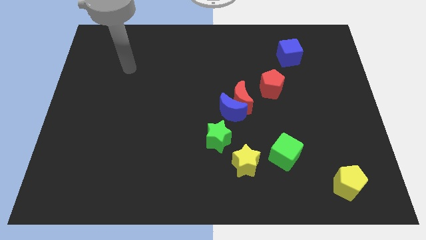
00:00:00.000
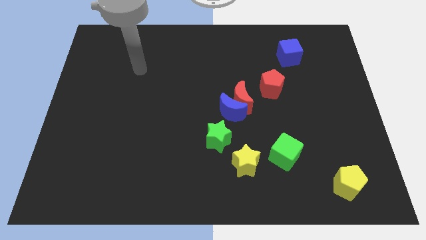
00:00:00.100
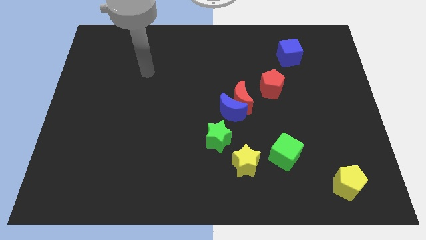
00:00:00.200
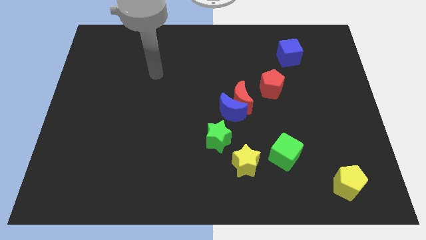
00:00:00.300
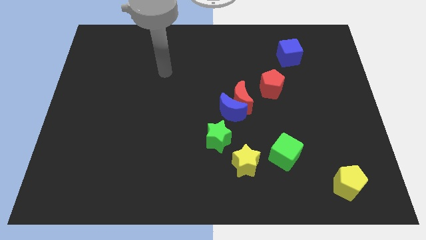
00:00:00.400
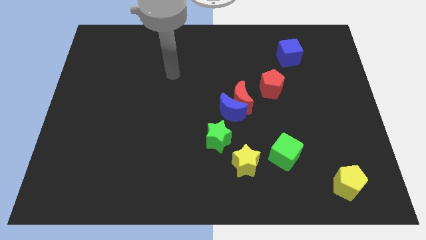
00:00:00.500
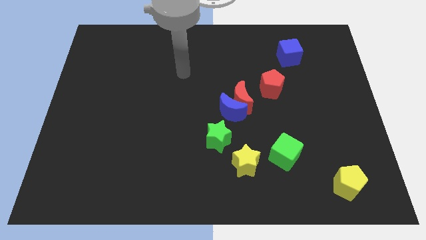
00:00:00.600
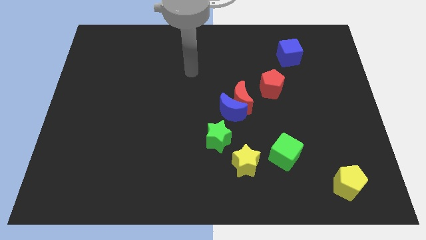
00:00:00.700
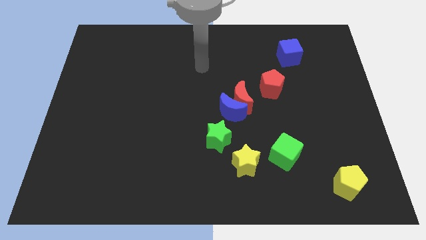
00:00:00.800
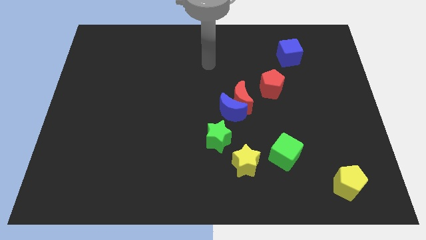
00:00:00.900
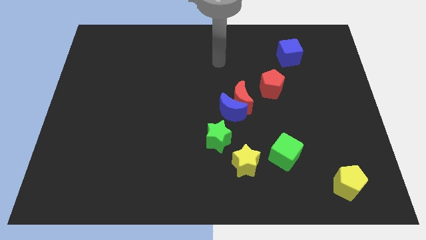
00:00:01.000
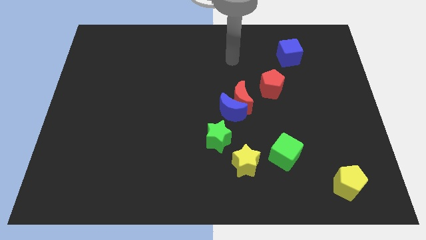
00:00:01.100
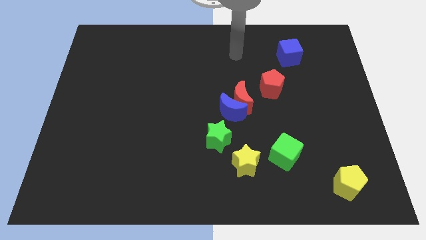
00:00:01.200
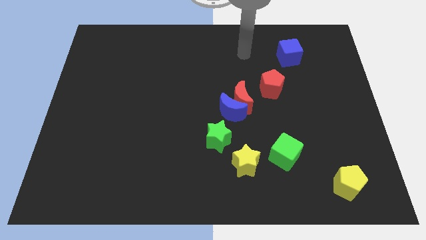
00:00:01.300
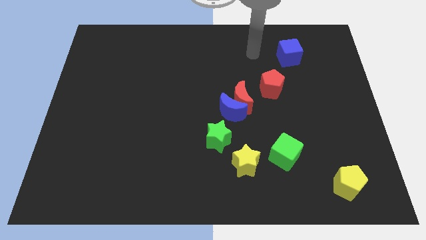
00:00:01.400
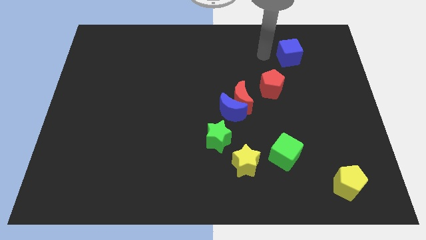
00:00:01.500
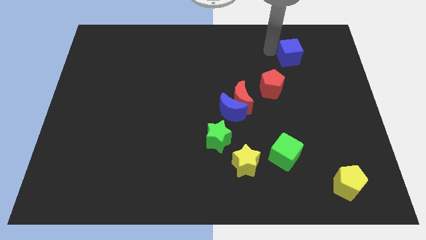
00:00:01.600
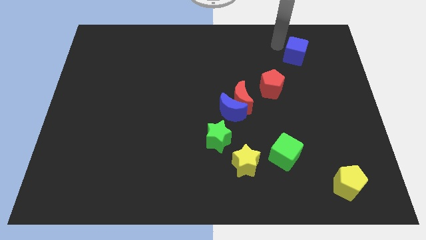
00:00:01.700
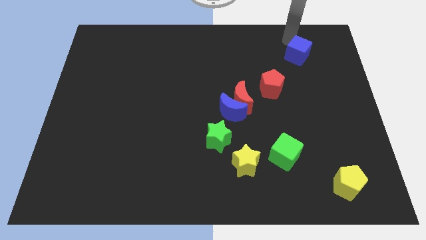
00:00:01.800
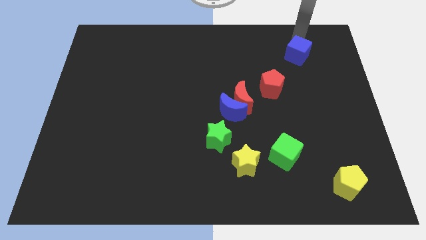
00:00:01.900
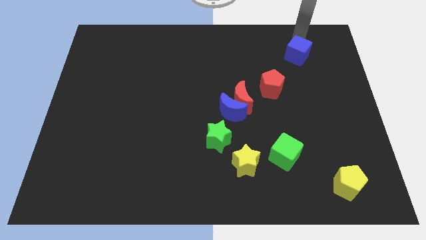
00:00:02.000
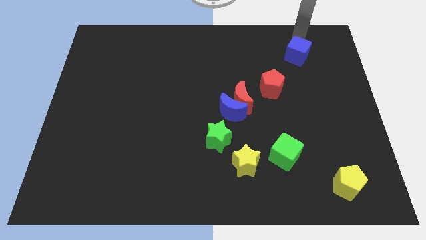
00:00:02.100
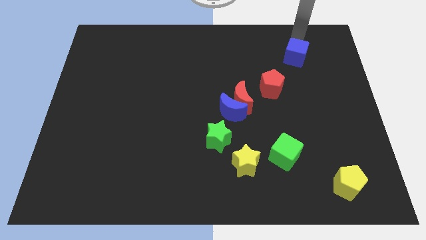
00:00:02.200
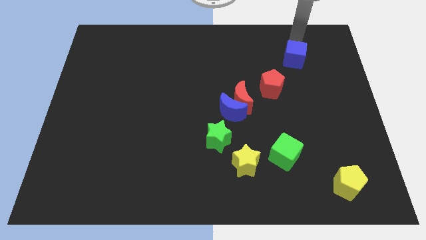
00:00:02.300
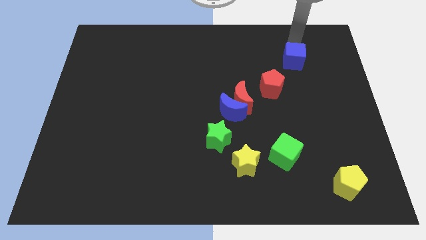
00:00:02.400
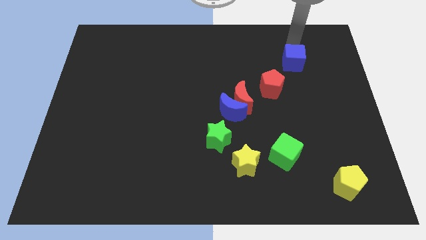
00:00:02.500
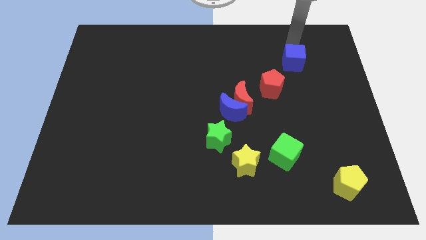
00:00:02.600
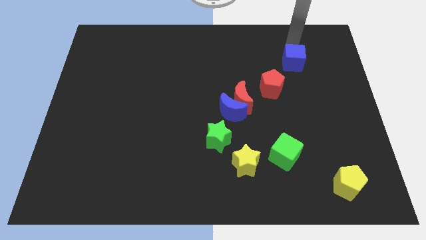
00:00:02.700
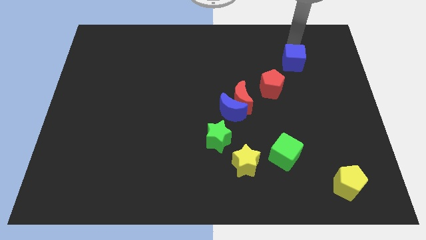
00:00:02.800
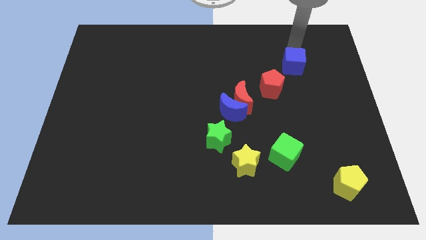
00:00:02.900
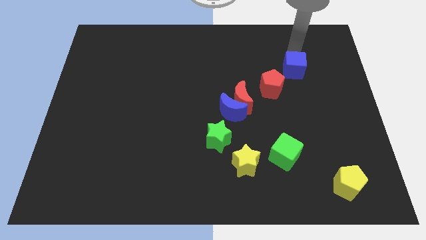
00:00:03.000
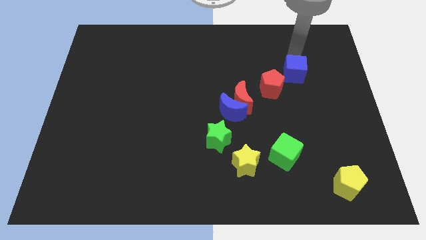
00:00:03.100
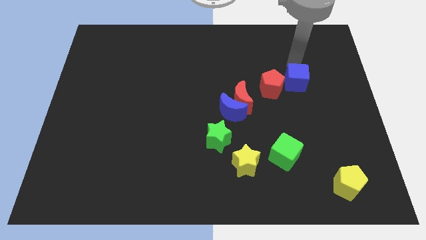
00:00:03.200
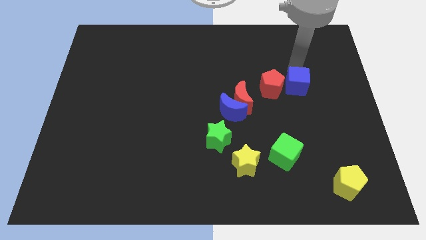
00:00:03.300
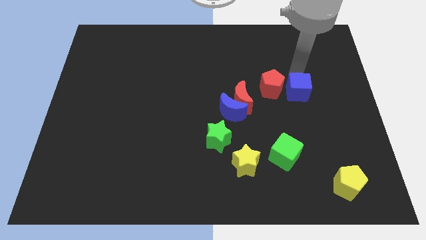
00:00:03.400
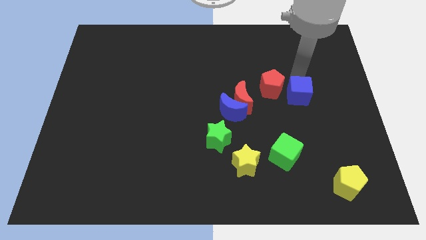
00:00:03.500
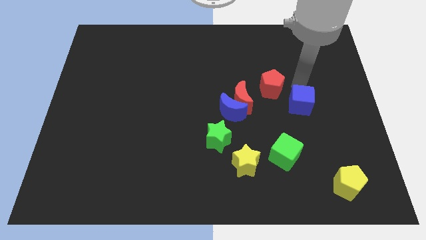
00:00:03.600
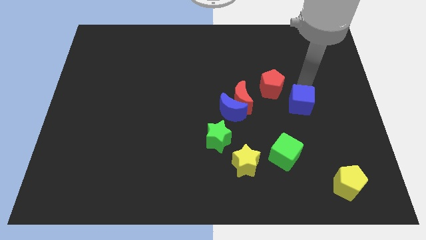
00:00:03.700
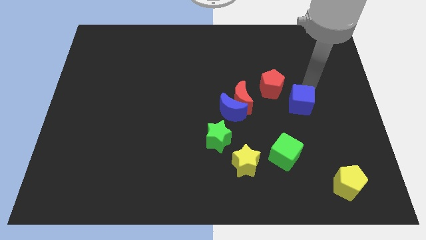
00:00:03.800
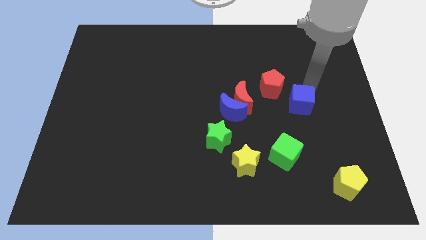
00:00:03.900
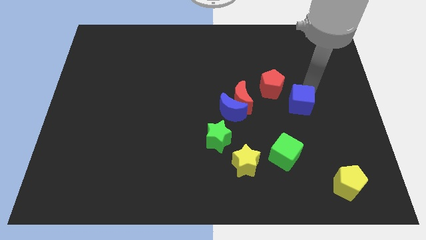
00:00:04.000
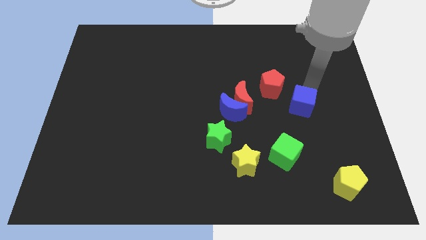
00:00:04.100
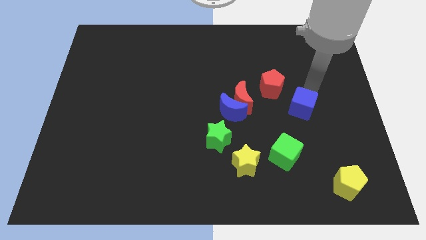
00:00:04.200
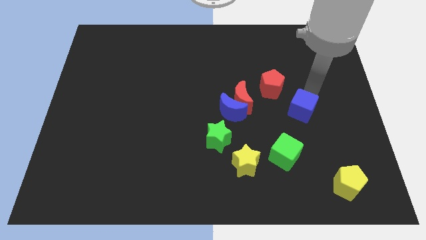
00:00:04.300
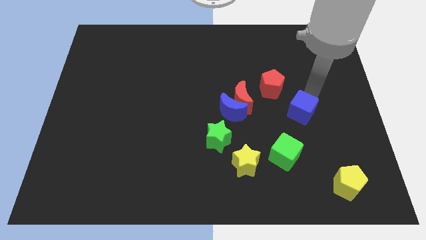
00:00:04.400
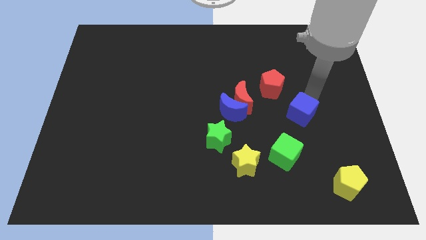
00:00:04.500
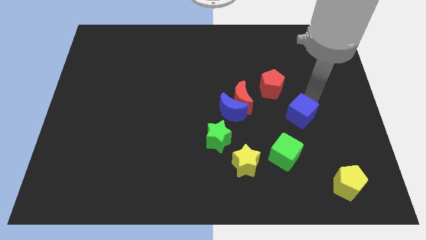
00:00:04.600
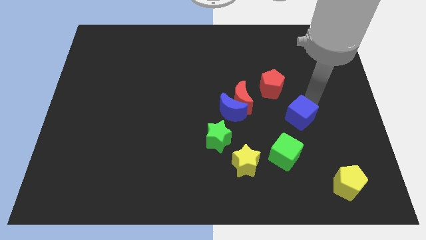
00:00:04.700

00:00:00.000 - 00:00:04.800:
push the blue cube downwards

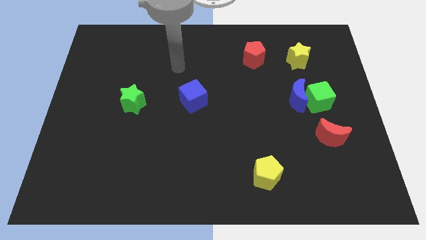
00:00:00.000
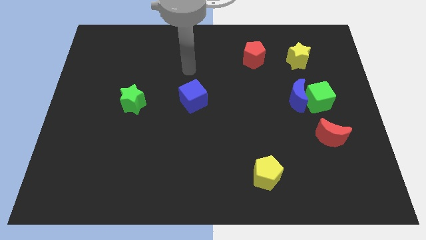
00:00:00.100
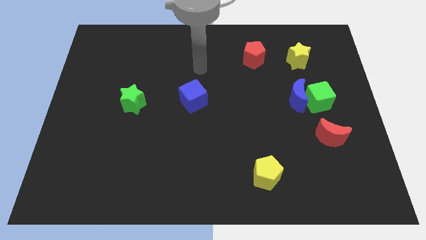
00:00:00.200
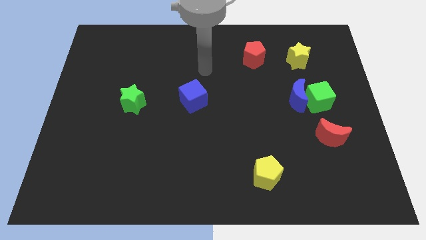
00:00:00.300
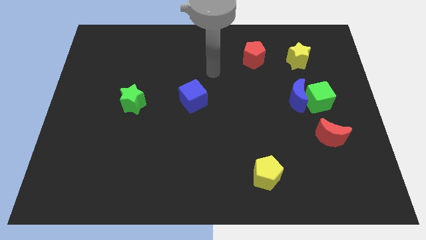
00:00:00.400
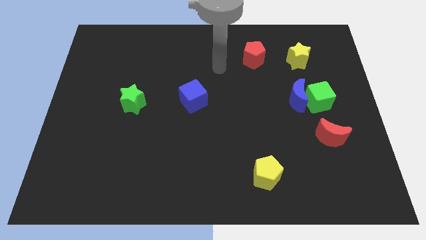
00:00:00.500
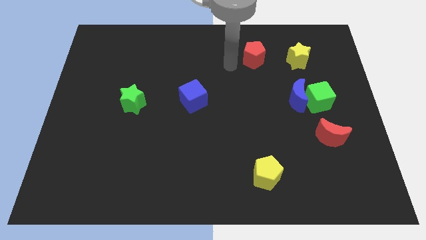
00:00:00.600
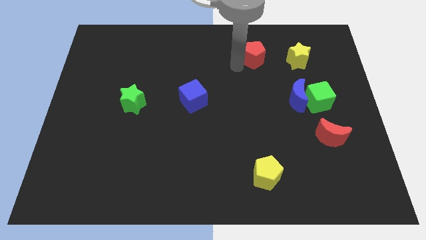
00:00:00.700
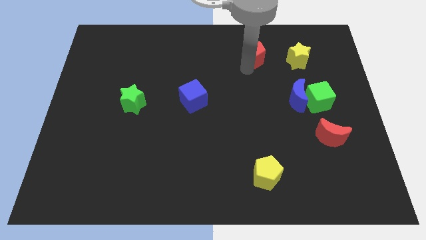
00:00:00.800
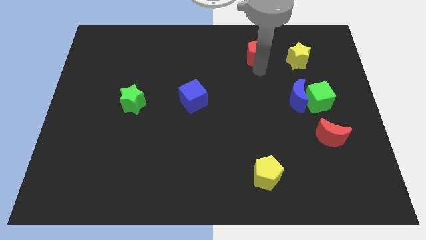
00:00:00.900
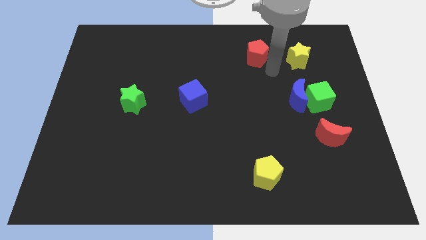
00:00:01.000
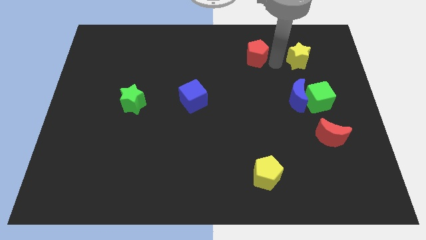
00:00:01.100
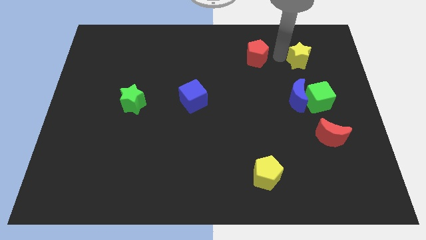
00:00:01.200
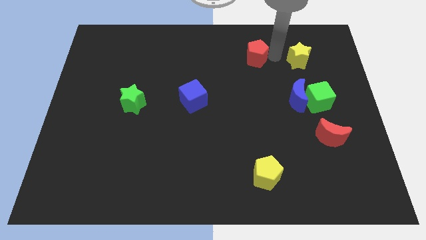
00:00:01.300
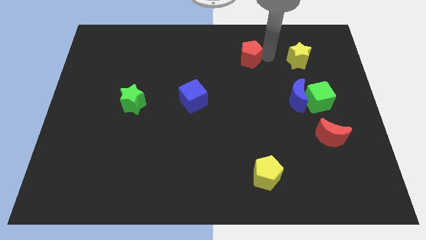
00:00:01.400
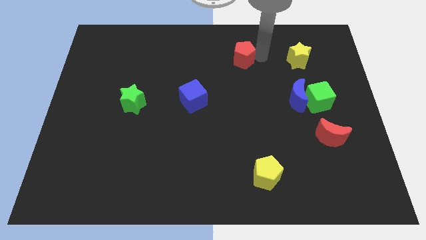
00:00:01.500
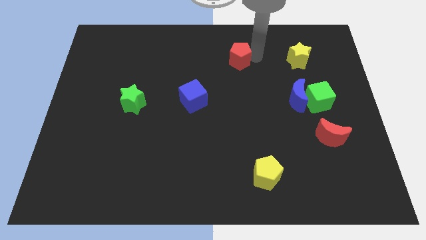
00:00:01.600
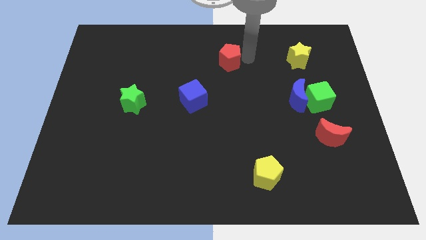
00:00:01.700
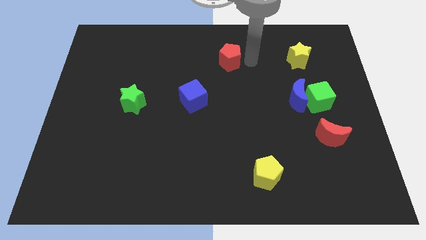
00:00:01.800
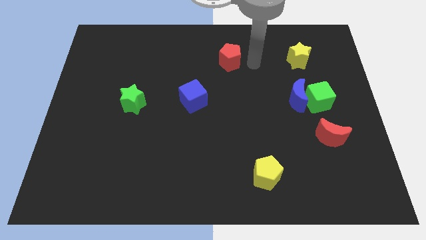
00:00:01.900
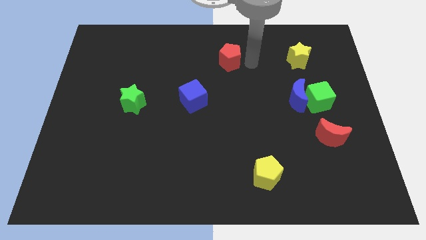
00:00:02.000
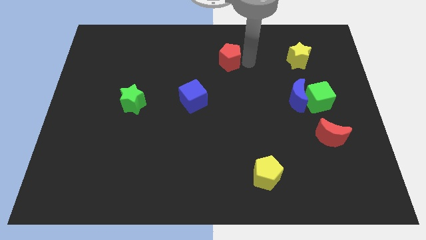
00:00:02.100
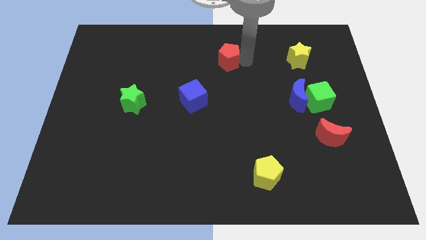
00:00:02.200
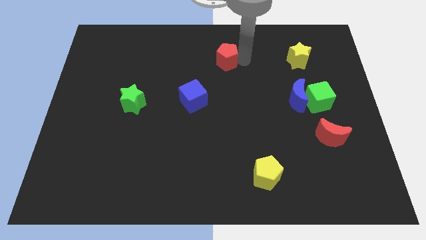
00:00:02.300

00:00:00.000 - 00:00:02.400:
move the red pentagon somewhat left

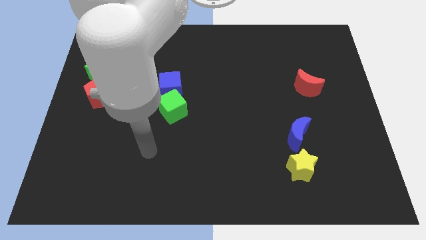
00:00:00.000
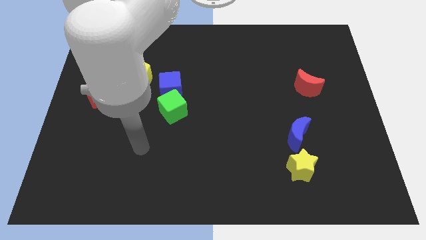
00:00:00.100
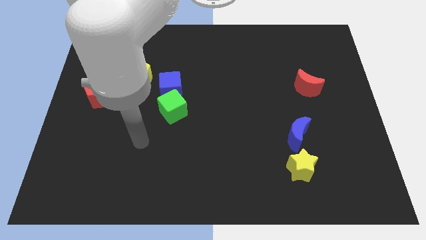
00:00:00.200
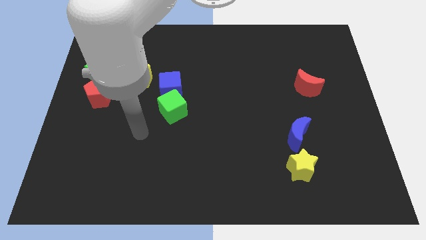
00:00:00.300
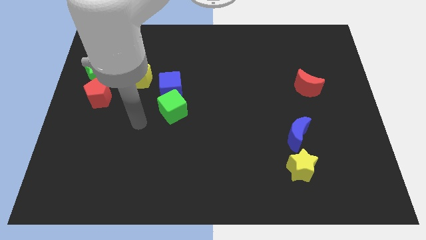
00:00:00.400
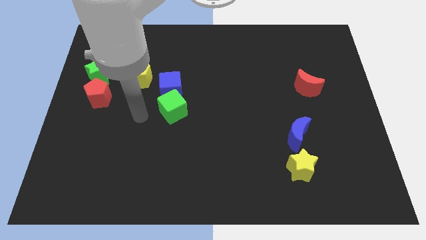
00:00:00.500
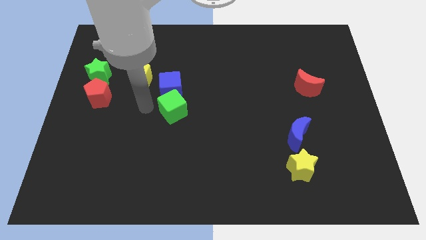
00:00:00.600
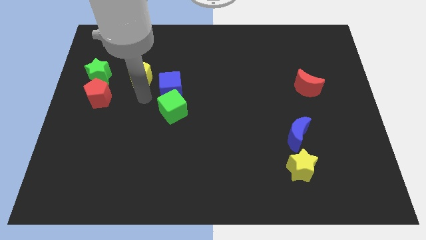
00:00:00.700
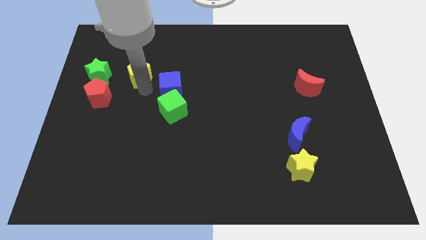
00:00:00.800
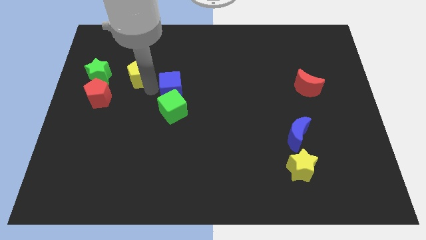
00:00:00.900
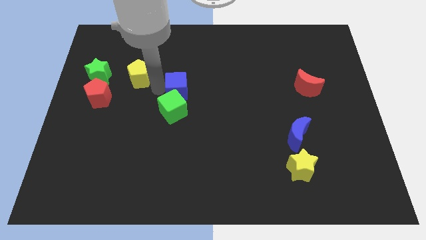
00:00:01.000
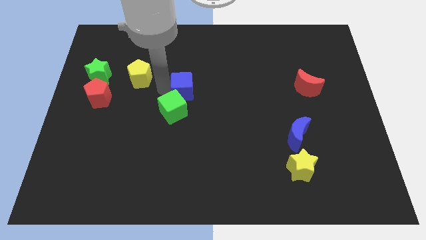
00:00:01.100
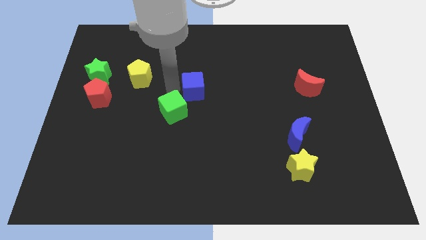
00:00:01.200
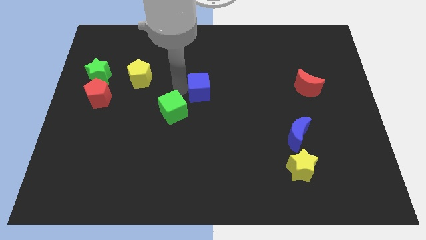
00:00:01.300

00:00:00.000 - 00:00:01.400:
slide the blue cube right a bit
